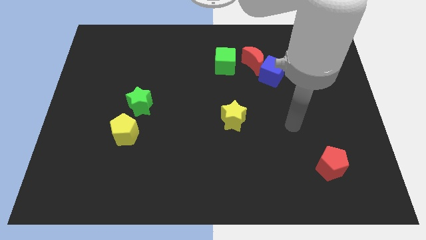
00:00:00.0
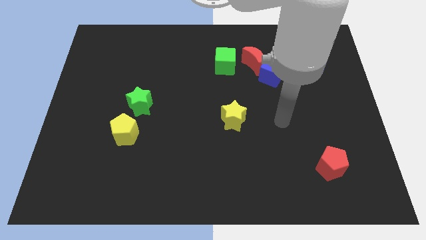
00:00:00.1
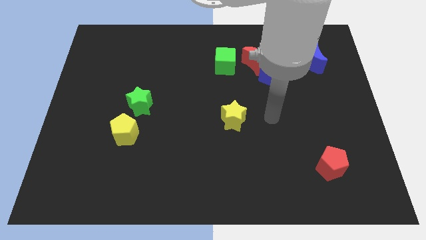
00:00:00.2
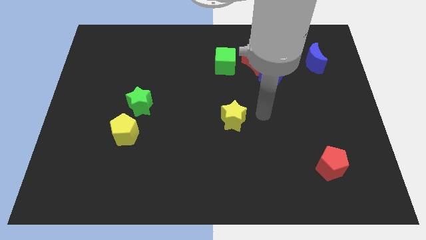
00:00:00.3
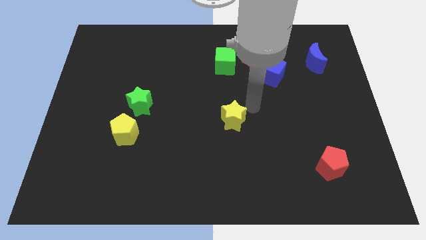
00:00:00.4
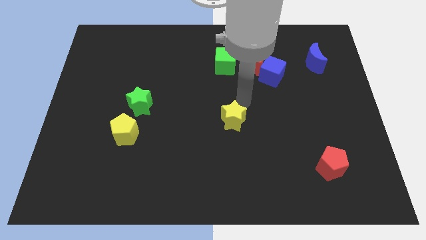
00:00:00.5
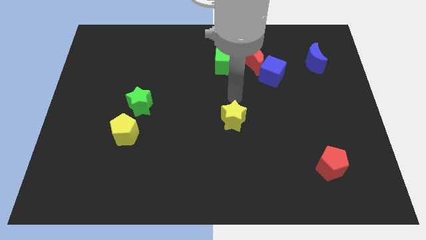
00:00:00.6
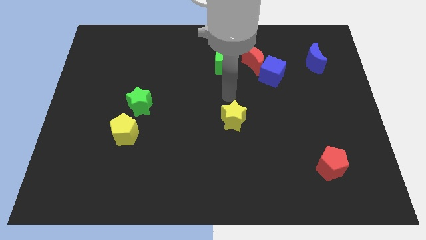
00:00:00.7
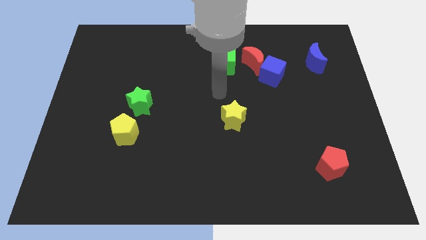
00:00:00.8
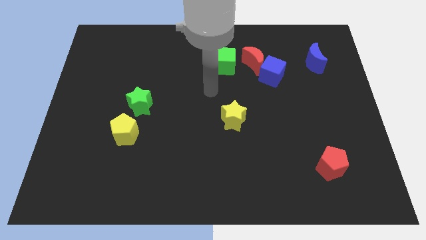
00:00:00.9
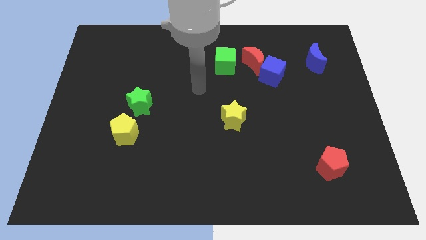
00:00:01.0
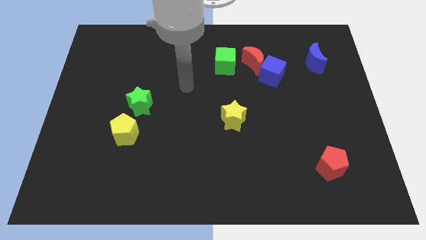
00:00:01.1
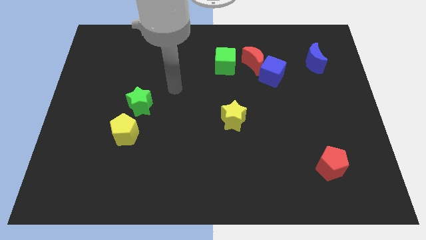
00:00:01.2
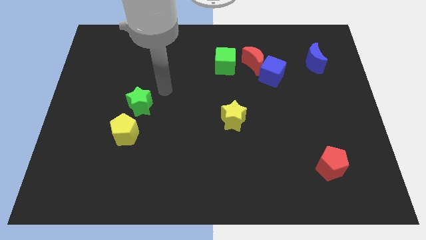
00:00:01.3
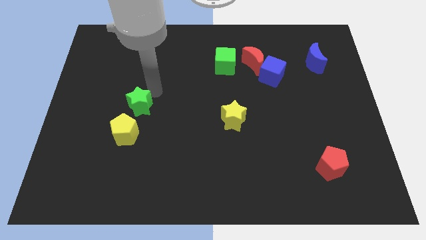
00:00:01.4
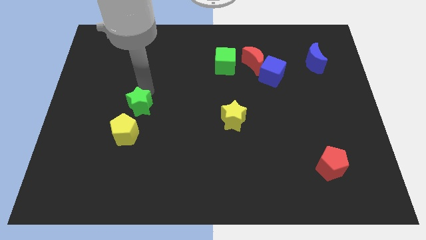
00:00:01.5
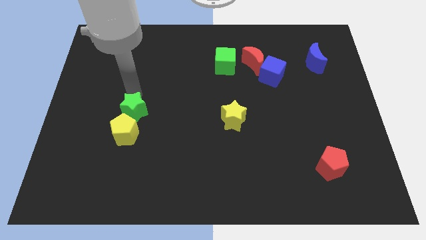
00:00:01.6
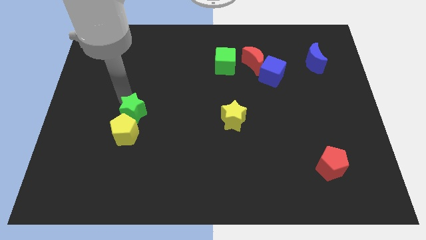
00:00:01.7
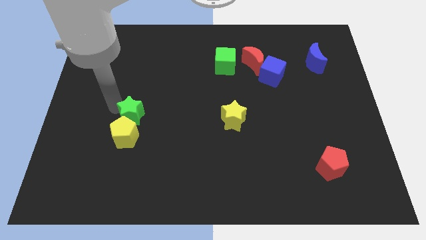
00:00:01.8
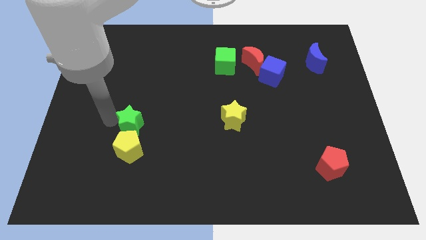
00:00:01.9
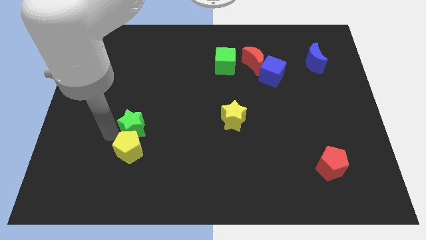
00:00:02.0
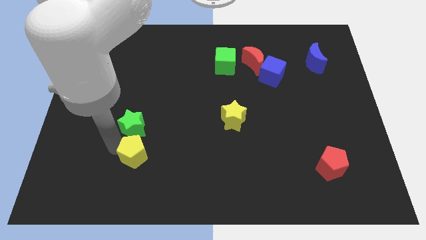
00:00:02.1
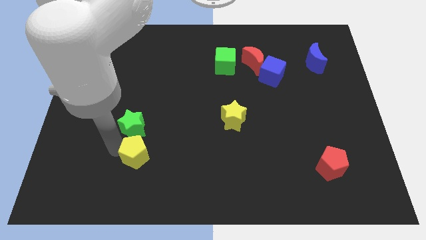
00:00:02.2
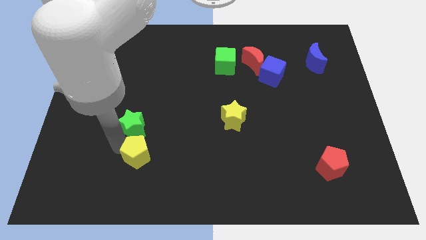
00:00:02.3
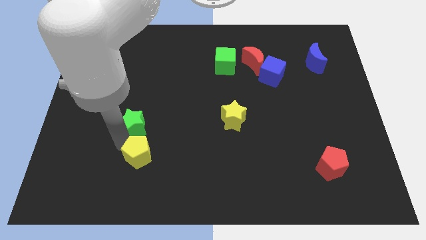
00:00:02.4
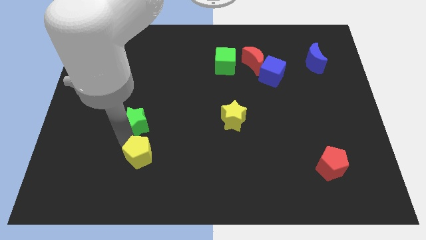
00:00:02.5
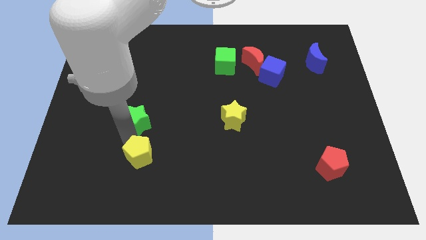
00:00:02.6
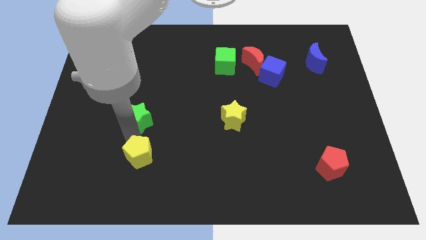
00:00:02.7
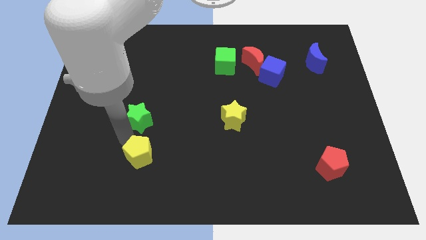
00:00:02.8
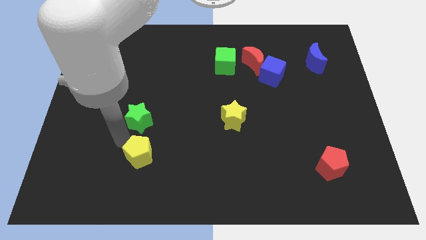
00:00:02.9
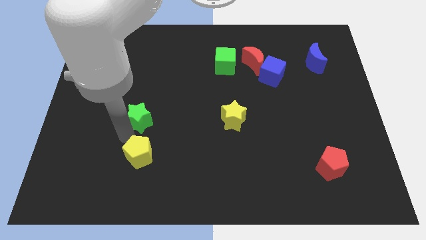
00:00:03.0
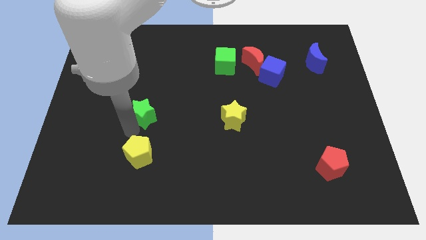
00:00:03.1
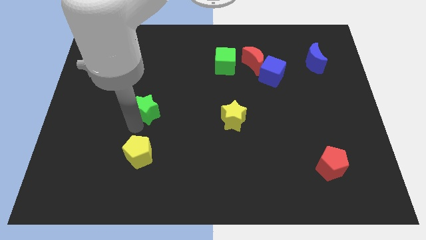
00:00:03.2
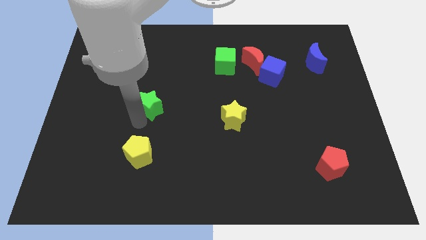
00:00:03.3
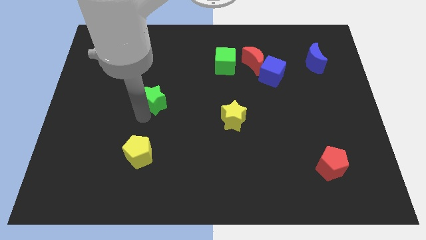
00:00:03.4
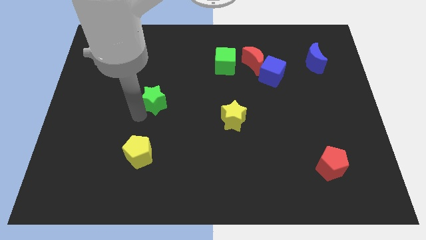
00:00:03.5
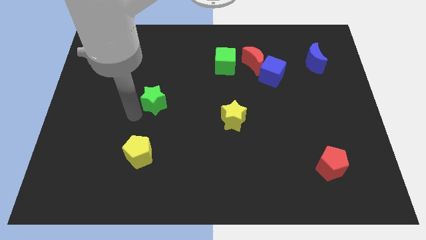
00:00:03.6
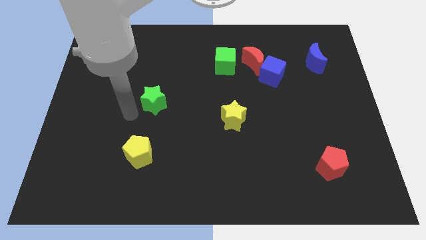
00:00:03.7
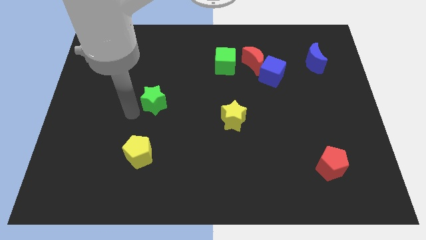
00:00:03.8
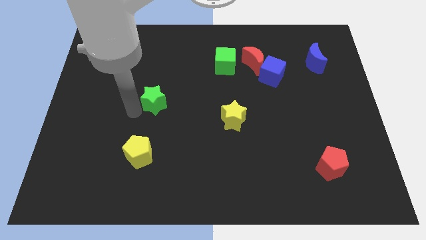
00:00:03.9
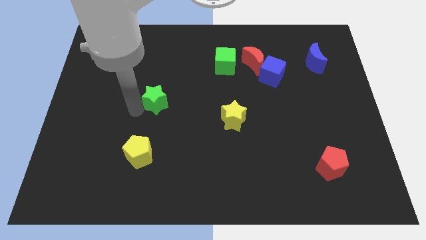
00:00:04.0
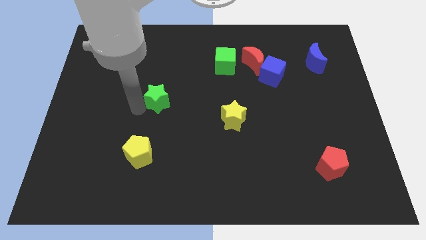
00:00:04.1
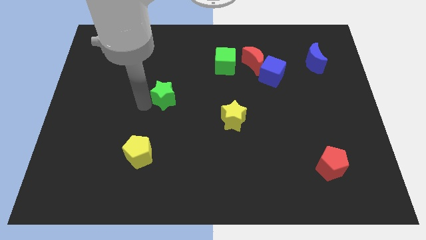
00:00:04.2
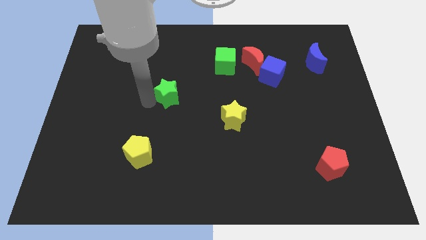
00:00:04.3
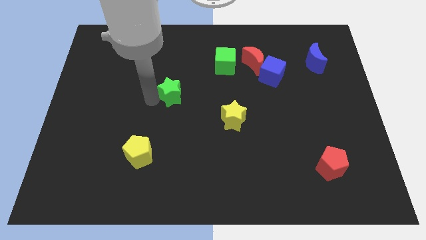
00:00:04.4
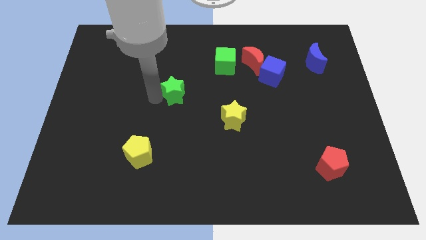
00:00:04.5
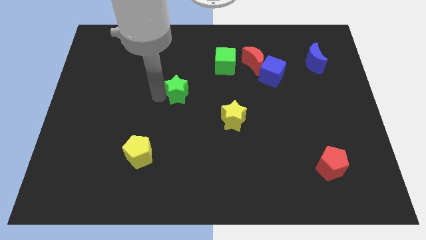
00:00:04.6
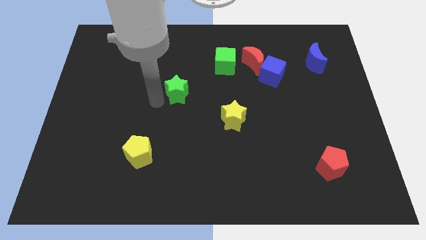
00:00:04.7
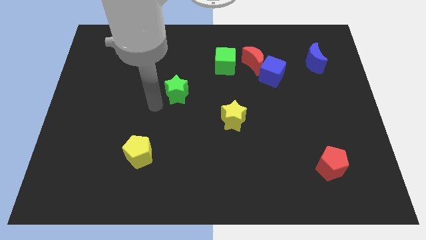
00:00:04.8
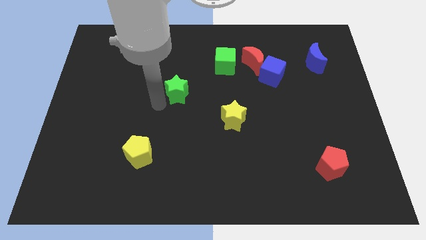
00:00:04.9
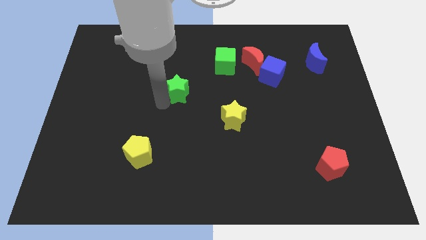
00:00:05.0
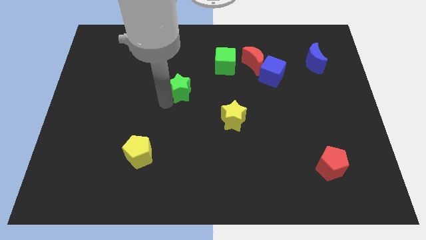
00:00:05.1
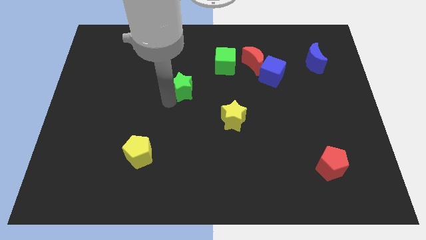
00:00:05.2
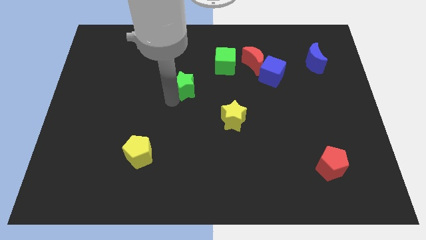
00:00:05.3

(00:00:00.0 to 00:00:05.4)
move the green star to the bottom left side of the green cube

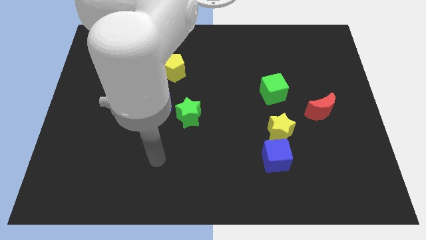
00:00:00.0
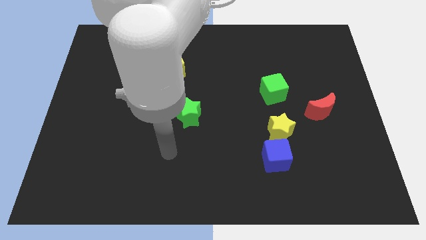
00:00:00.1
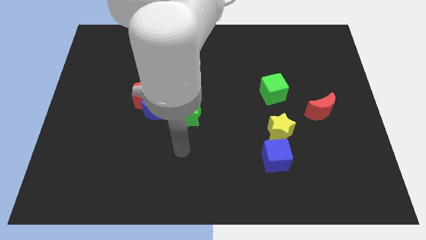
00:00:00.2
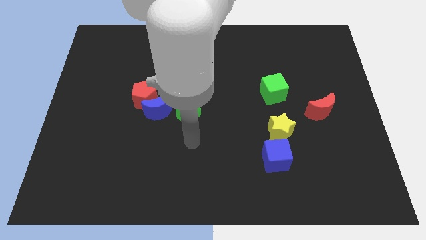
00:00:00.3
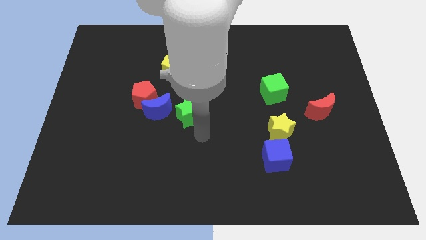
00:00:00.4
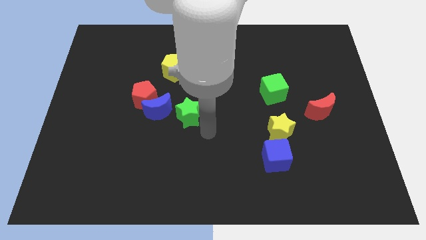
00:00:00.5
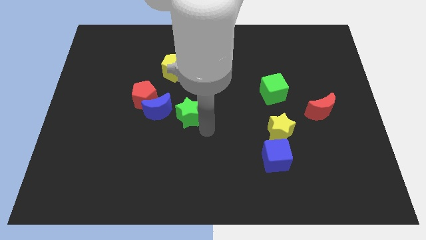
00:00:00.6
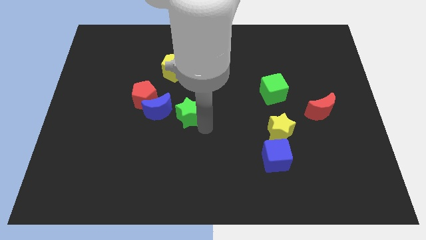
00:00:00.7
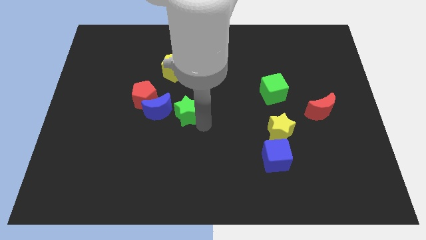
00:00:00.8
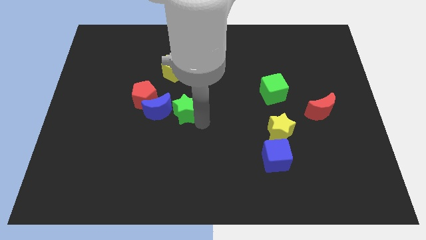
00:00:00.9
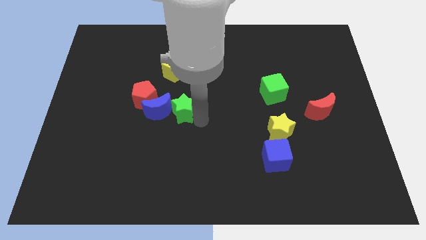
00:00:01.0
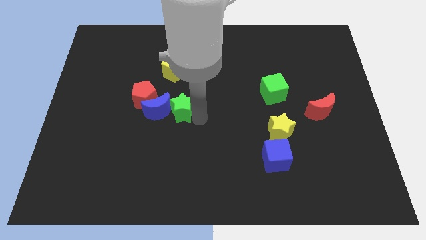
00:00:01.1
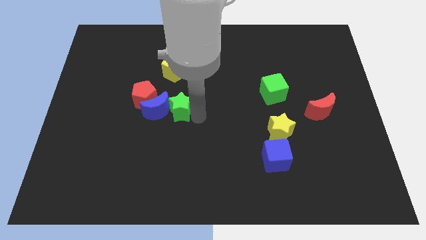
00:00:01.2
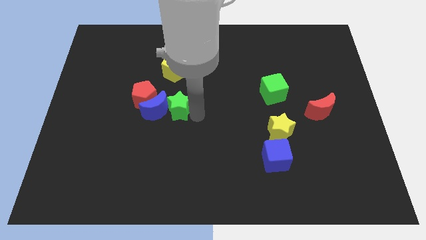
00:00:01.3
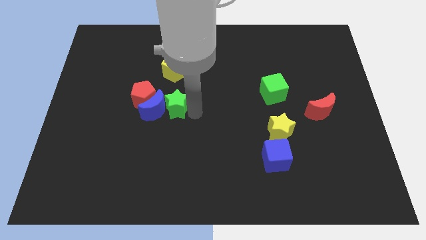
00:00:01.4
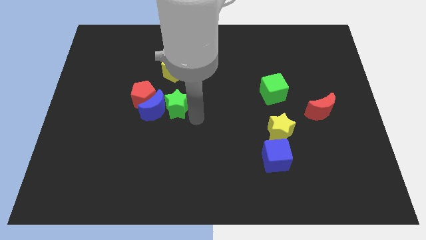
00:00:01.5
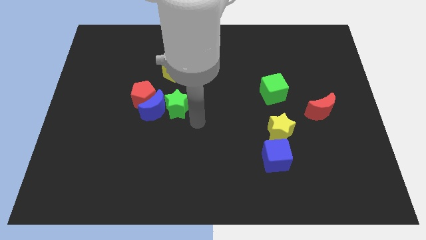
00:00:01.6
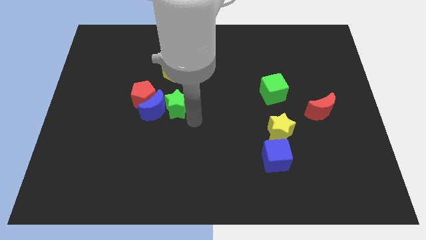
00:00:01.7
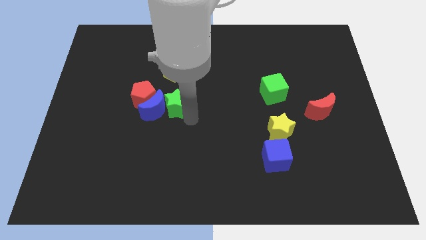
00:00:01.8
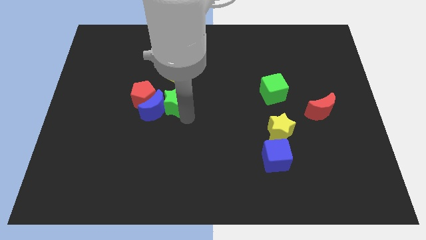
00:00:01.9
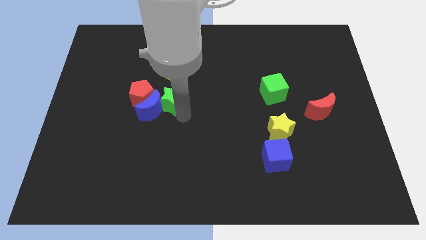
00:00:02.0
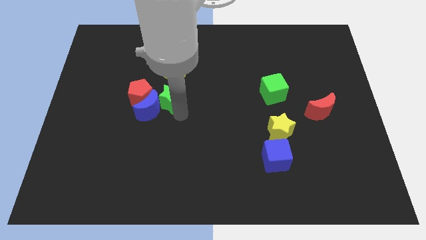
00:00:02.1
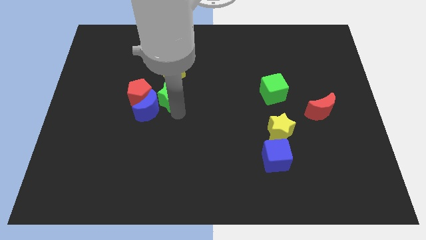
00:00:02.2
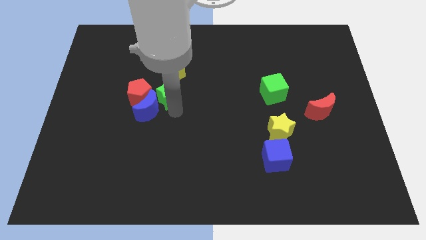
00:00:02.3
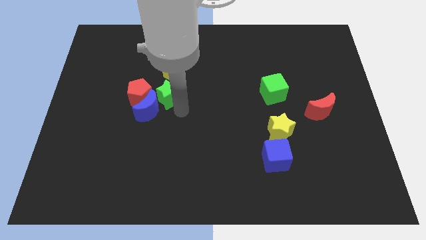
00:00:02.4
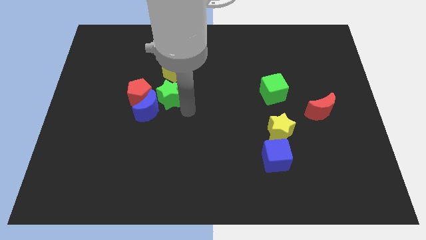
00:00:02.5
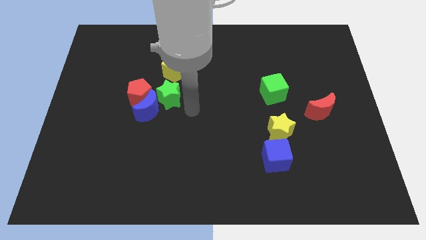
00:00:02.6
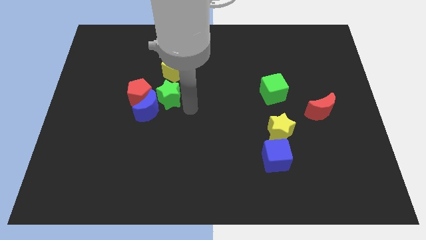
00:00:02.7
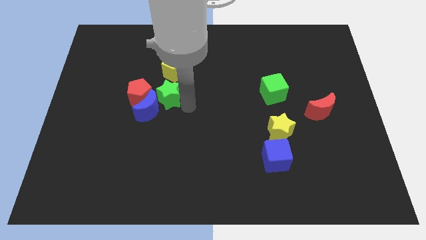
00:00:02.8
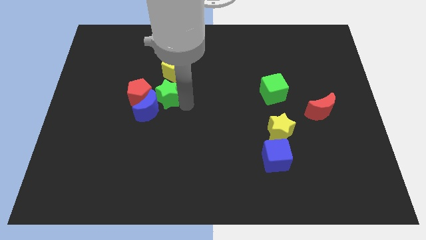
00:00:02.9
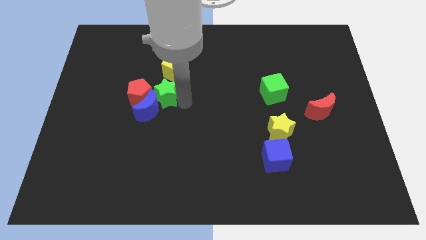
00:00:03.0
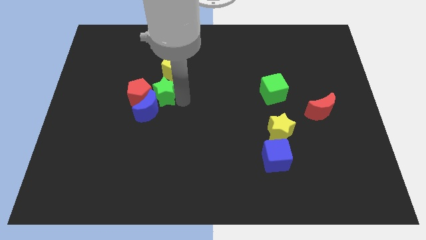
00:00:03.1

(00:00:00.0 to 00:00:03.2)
push the green star diagonally down and to the left of the yellow pentagon
